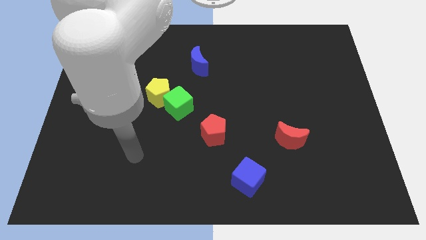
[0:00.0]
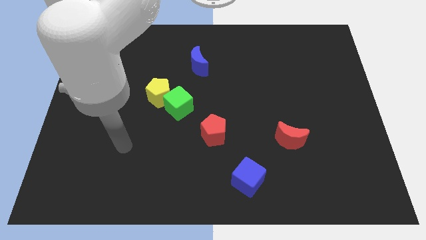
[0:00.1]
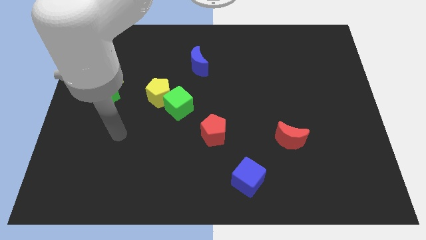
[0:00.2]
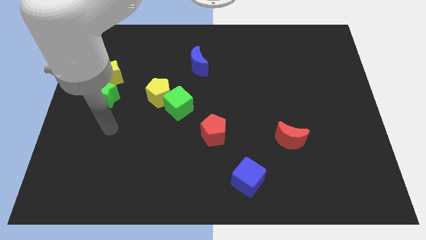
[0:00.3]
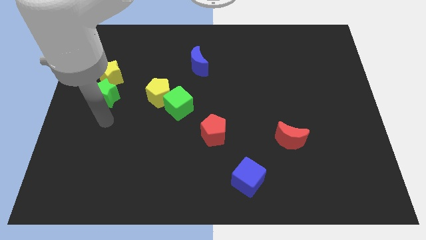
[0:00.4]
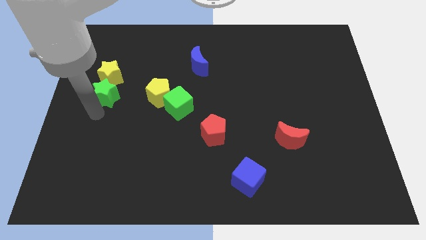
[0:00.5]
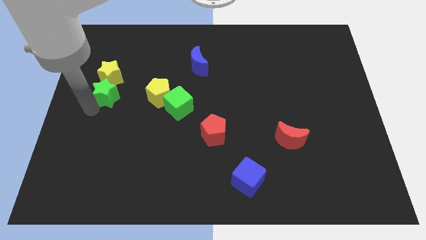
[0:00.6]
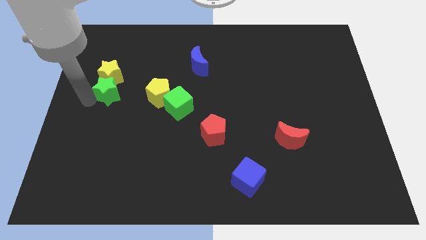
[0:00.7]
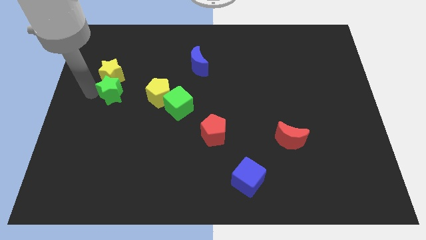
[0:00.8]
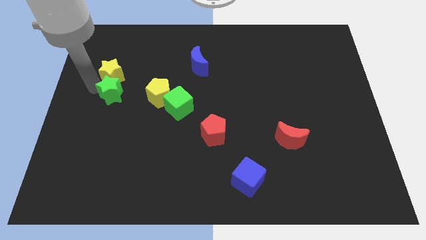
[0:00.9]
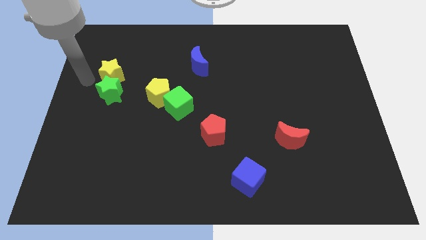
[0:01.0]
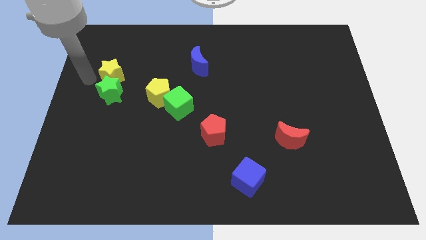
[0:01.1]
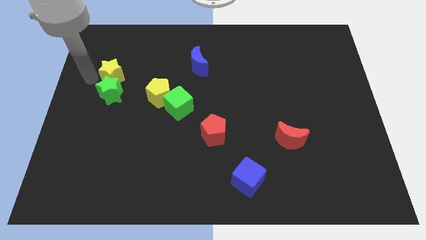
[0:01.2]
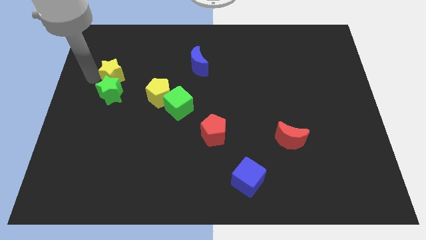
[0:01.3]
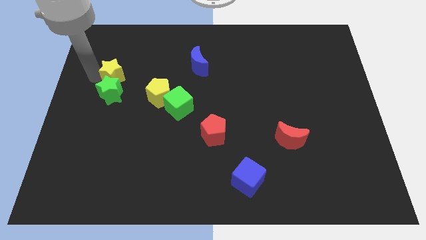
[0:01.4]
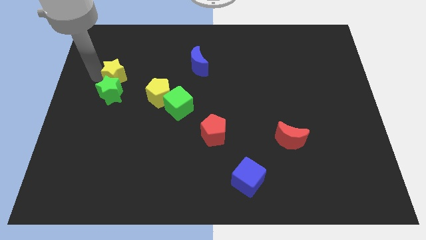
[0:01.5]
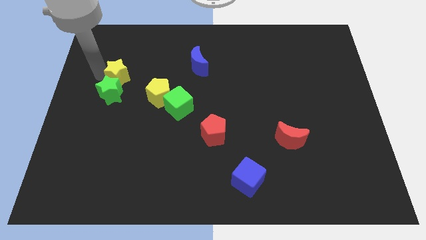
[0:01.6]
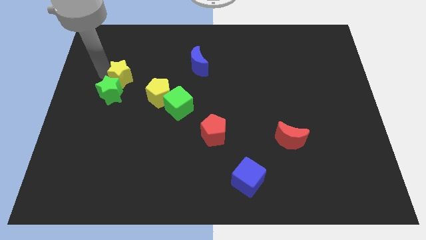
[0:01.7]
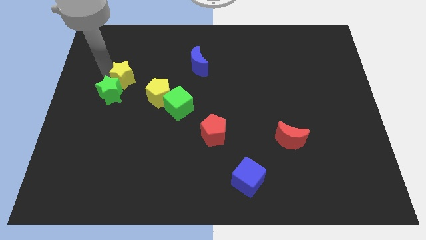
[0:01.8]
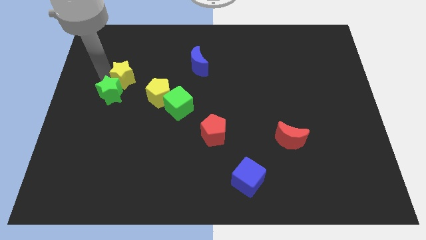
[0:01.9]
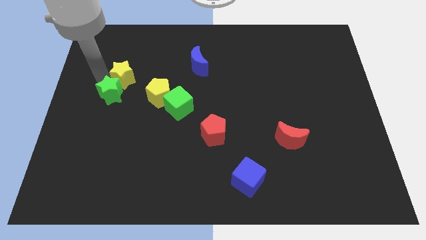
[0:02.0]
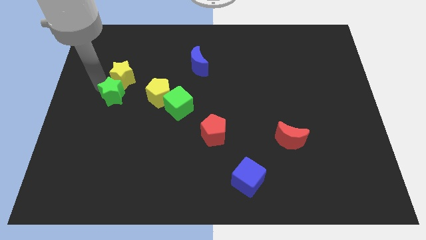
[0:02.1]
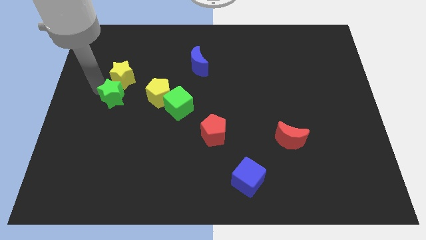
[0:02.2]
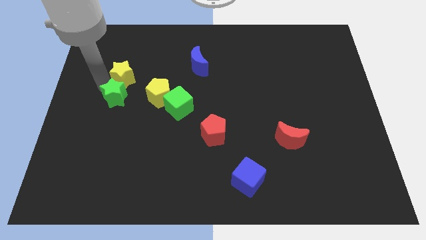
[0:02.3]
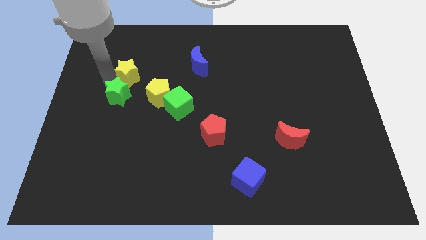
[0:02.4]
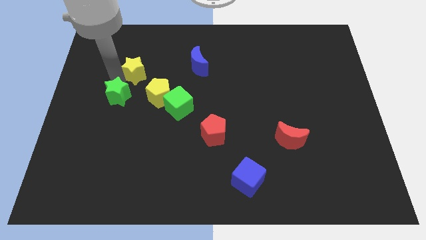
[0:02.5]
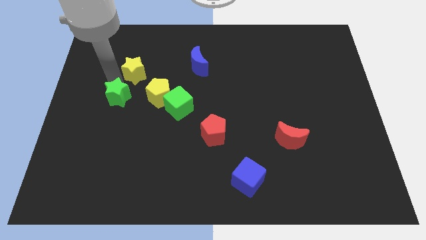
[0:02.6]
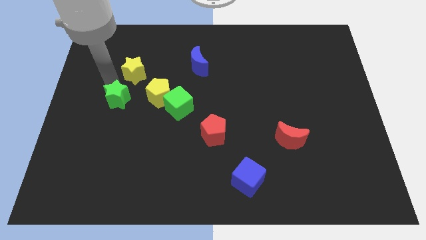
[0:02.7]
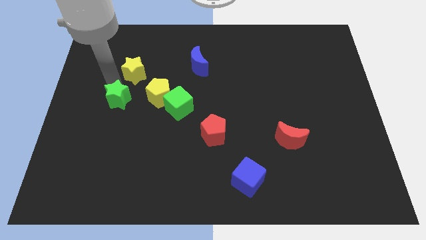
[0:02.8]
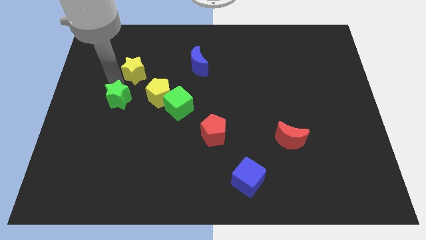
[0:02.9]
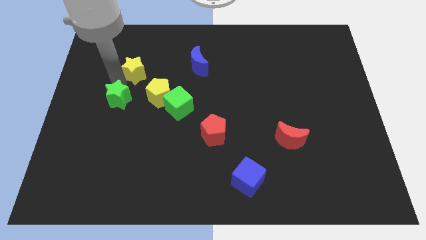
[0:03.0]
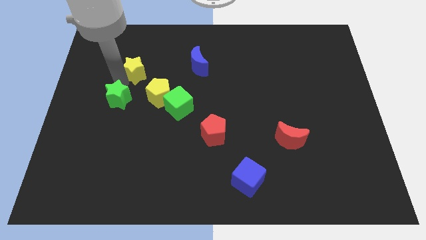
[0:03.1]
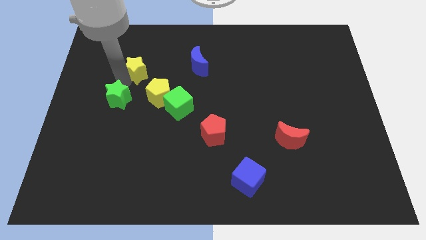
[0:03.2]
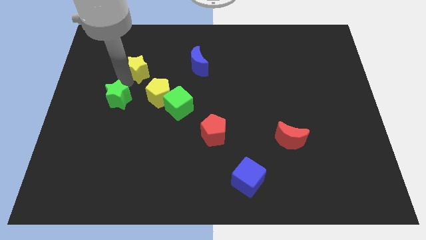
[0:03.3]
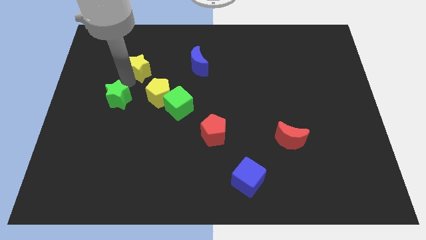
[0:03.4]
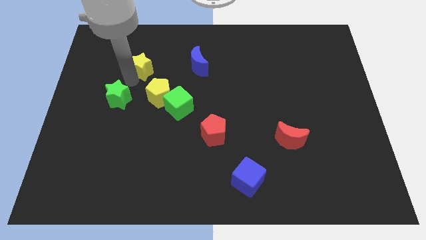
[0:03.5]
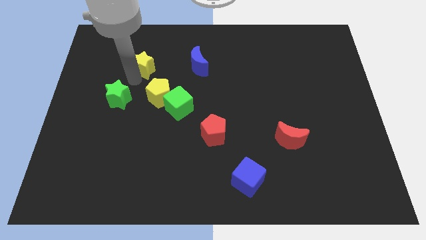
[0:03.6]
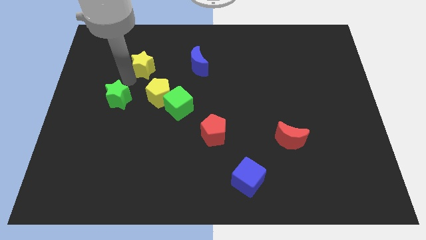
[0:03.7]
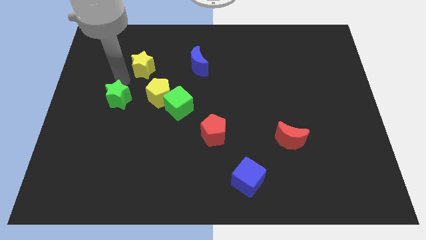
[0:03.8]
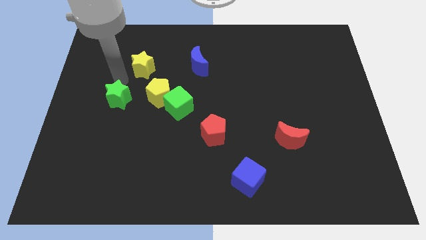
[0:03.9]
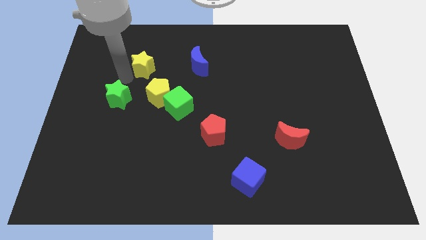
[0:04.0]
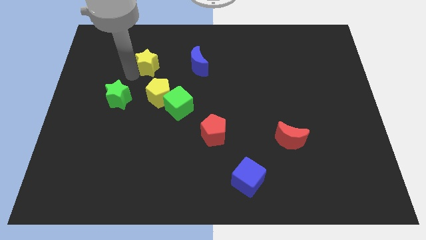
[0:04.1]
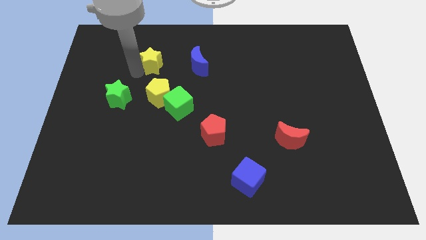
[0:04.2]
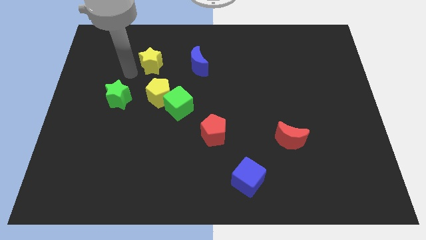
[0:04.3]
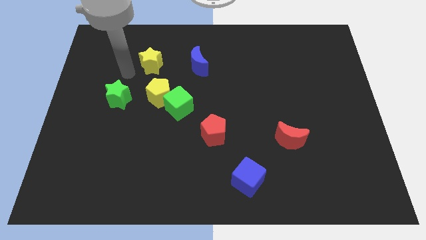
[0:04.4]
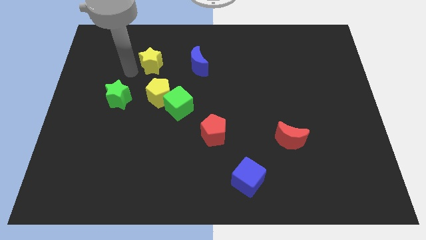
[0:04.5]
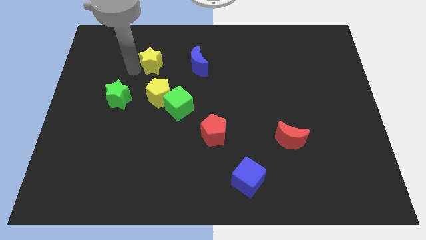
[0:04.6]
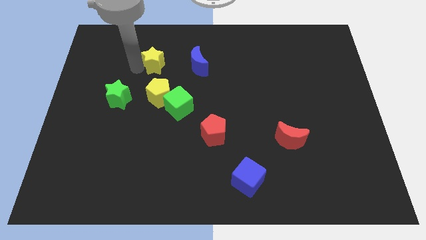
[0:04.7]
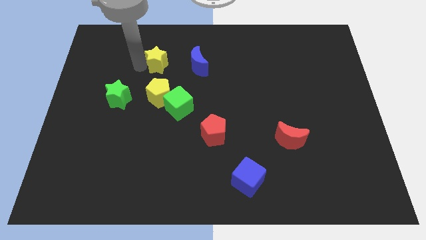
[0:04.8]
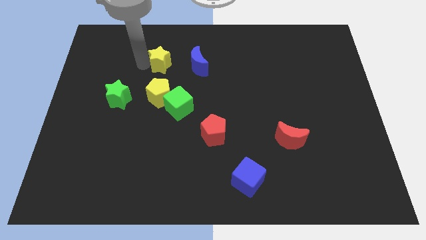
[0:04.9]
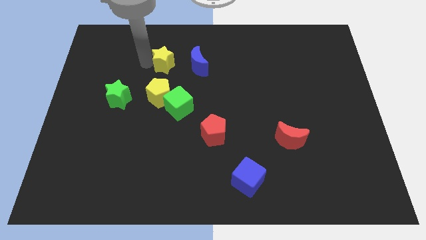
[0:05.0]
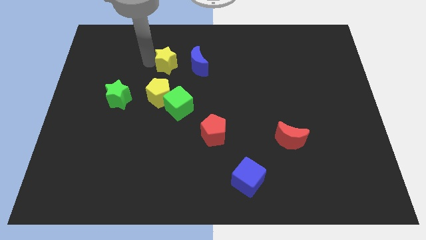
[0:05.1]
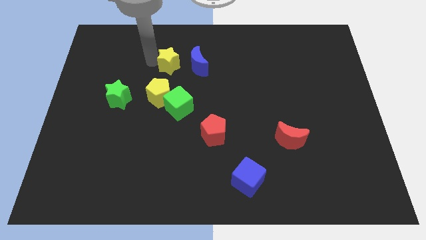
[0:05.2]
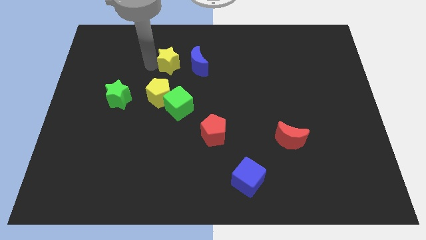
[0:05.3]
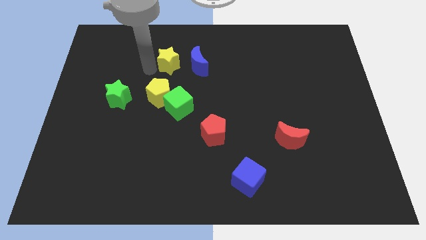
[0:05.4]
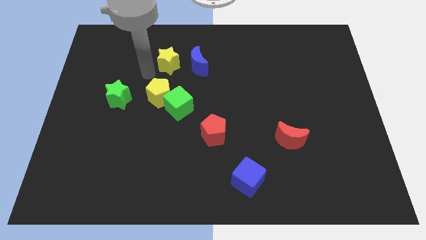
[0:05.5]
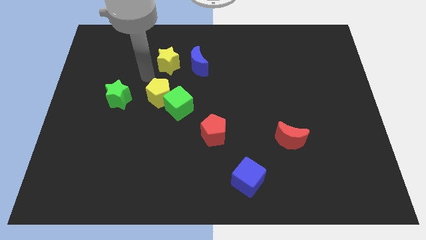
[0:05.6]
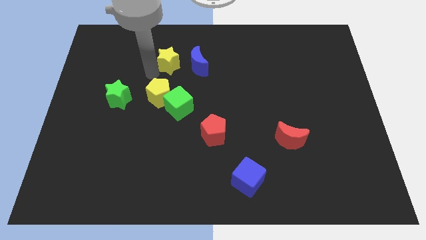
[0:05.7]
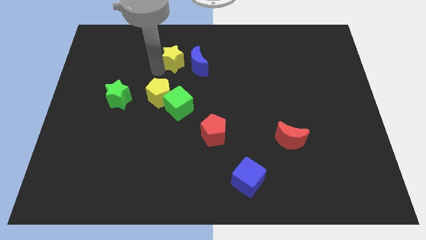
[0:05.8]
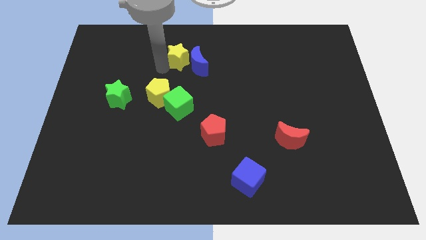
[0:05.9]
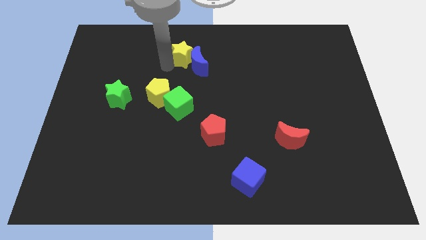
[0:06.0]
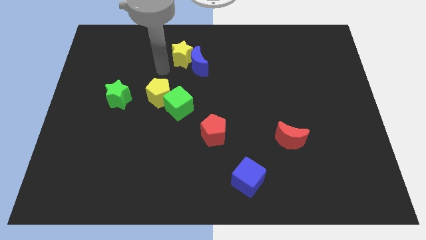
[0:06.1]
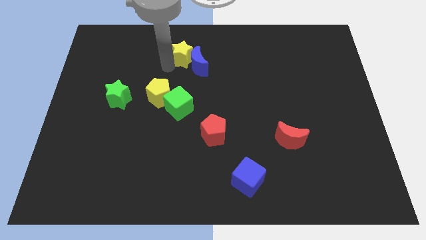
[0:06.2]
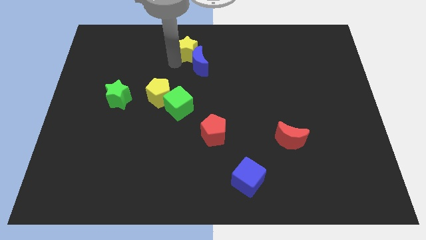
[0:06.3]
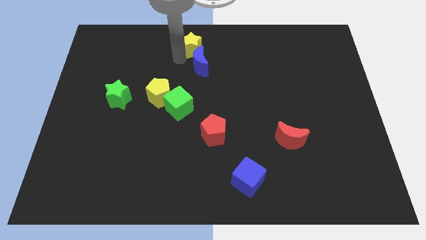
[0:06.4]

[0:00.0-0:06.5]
push the yellow star to the towards your base

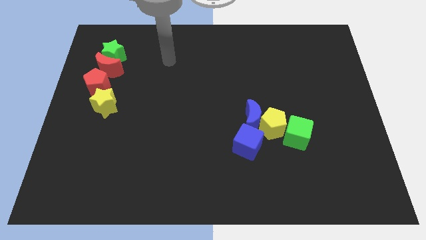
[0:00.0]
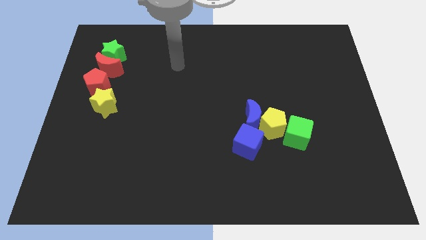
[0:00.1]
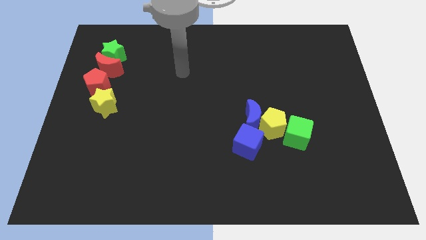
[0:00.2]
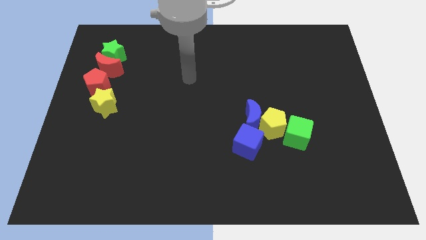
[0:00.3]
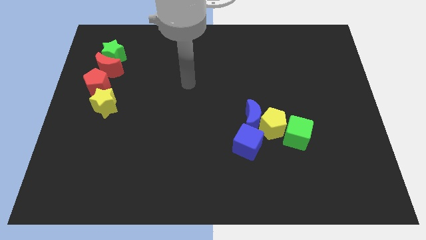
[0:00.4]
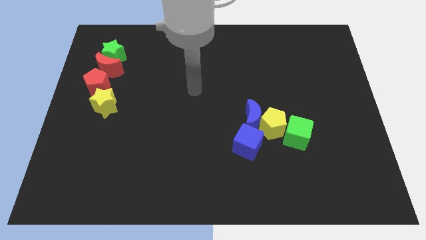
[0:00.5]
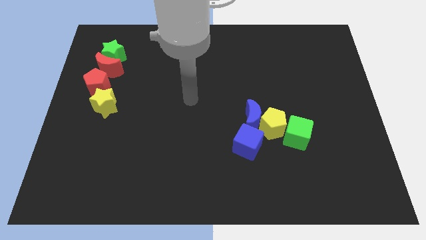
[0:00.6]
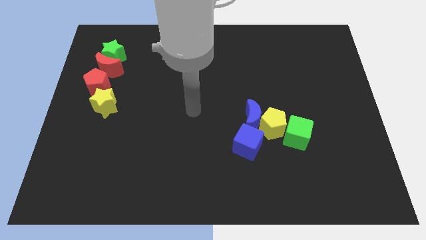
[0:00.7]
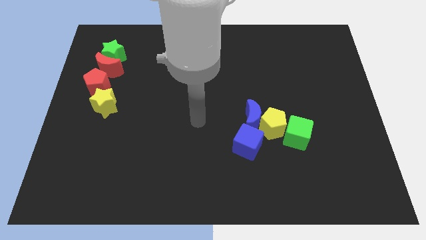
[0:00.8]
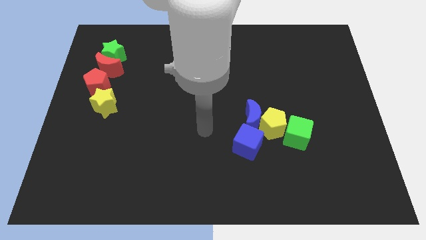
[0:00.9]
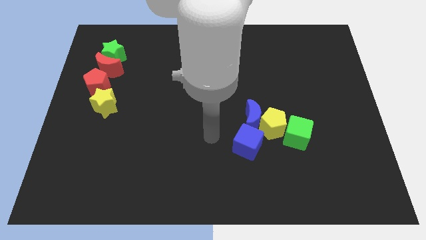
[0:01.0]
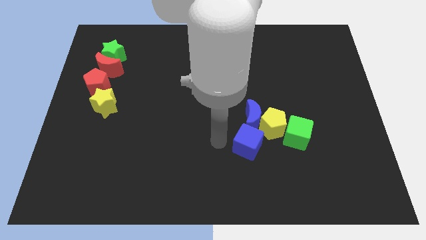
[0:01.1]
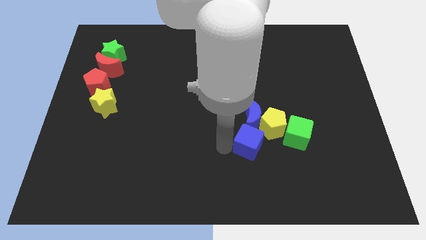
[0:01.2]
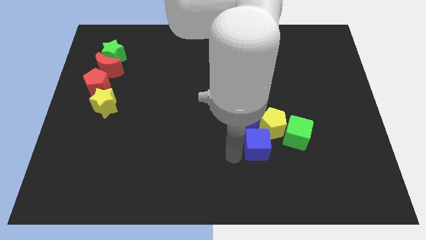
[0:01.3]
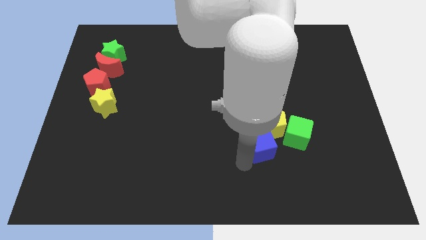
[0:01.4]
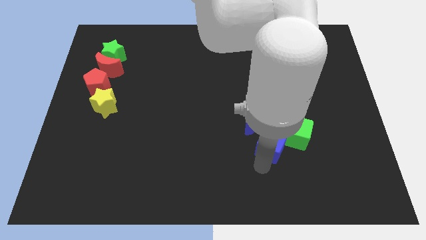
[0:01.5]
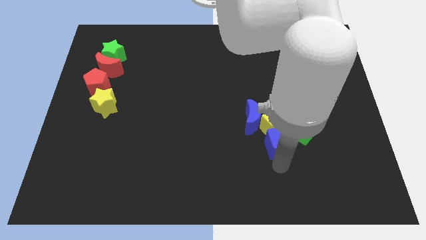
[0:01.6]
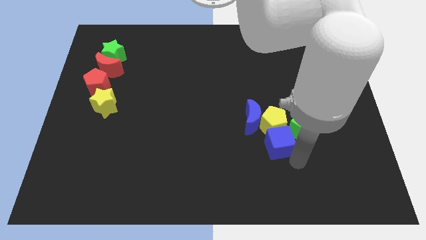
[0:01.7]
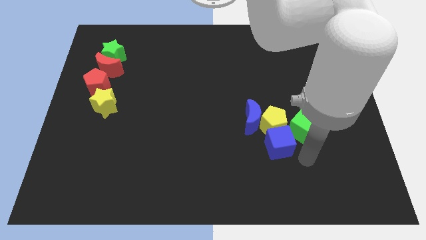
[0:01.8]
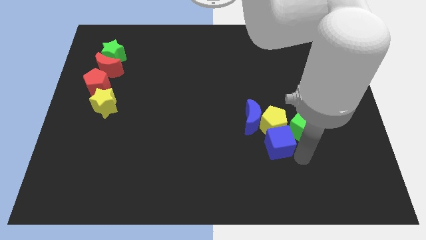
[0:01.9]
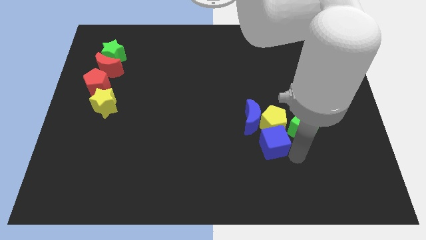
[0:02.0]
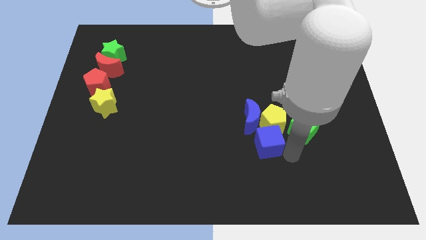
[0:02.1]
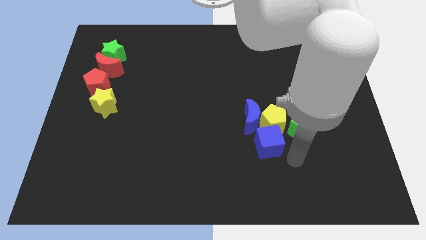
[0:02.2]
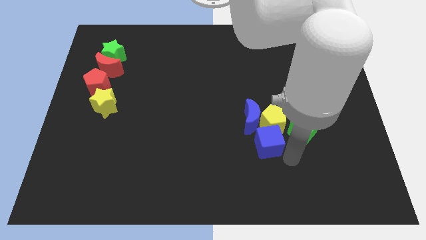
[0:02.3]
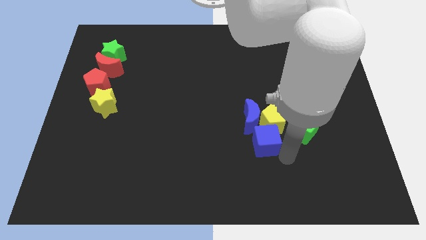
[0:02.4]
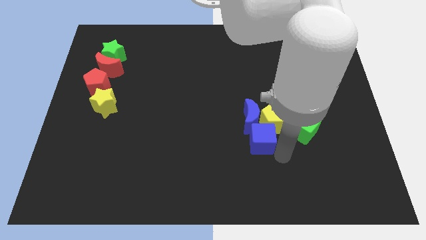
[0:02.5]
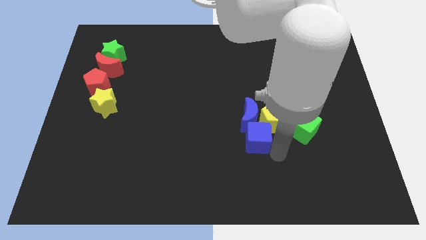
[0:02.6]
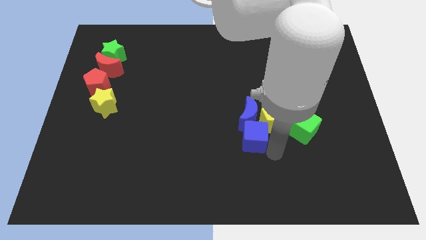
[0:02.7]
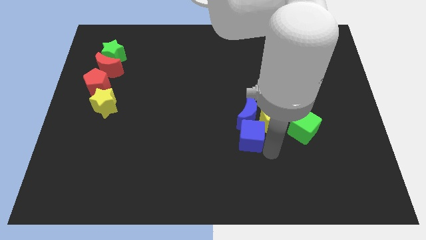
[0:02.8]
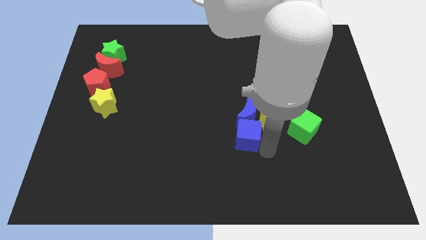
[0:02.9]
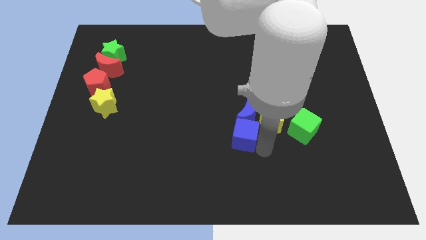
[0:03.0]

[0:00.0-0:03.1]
push the blue cube to the center
